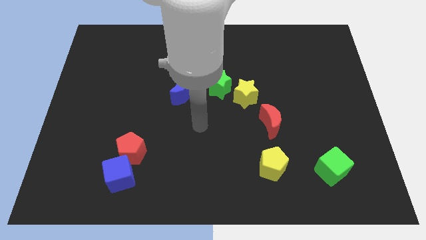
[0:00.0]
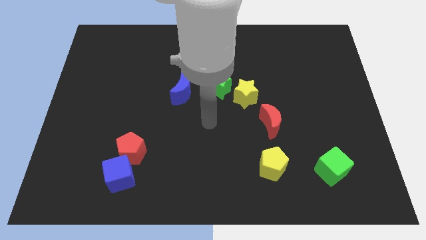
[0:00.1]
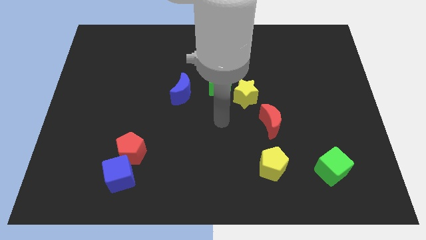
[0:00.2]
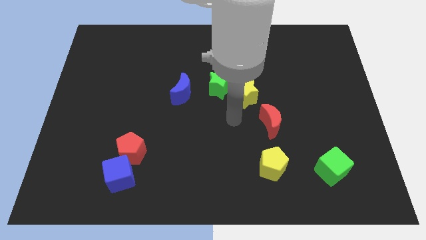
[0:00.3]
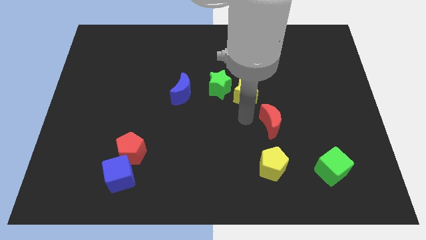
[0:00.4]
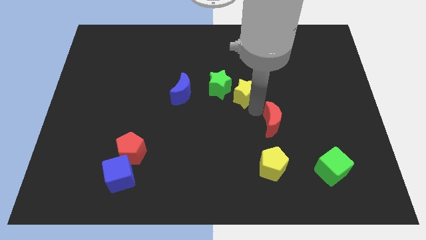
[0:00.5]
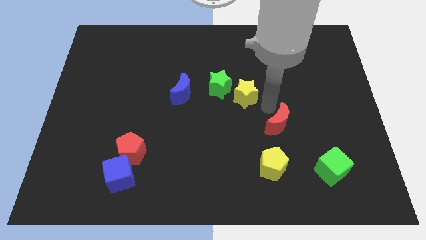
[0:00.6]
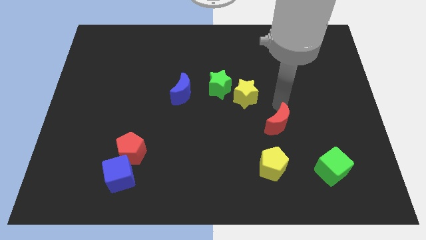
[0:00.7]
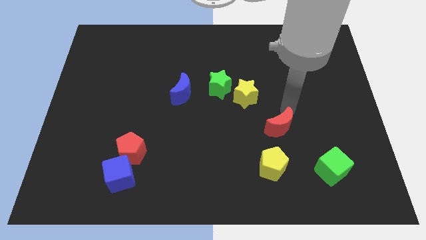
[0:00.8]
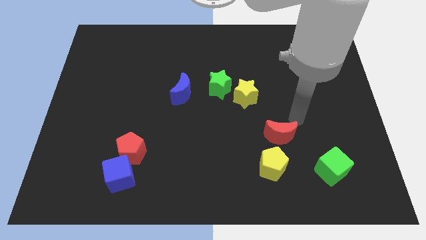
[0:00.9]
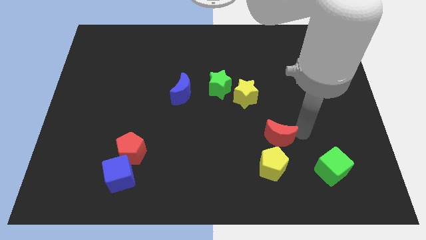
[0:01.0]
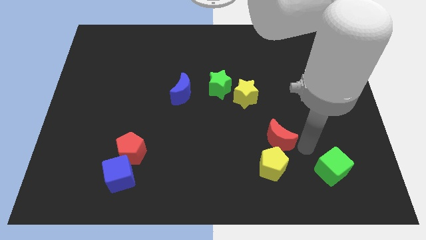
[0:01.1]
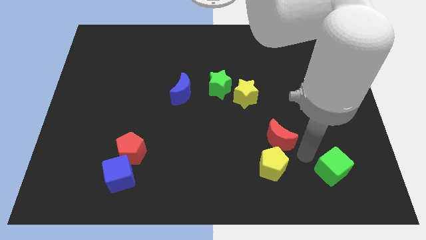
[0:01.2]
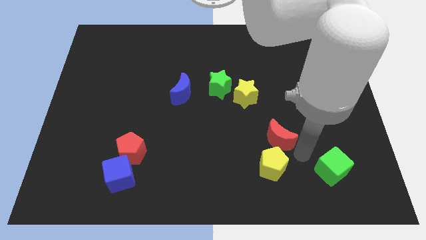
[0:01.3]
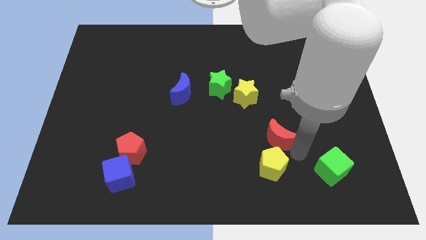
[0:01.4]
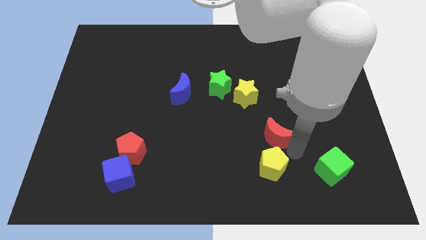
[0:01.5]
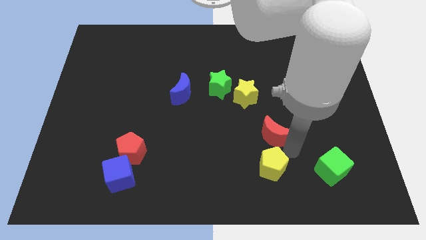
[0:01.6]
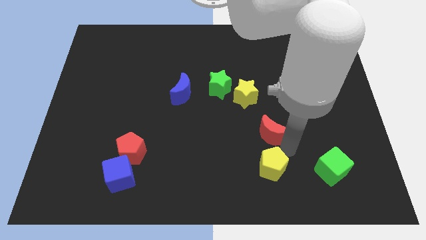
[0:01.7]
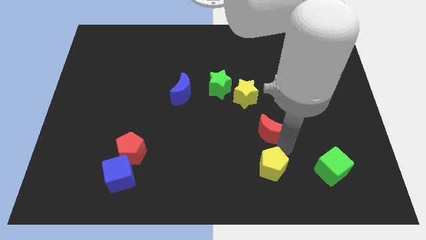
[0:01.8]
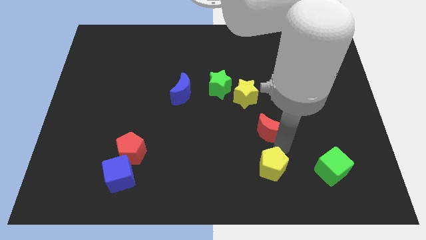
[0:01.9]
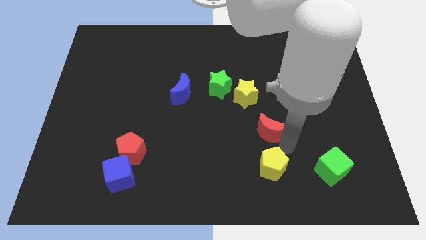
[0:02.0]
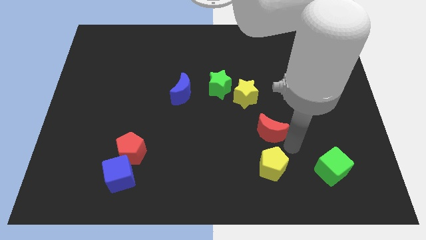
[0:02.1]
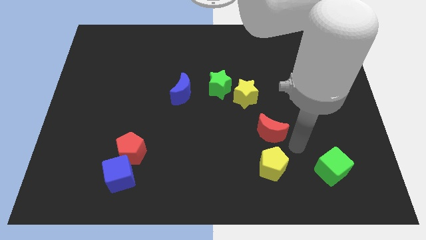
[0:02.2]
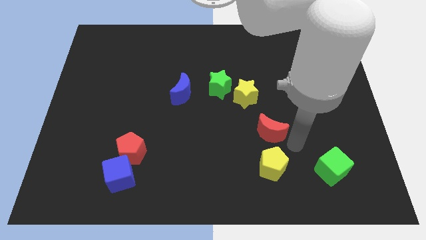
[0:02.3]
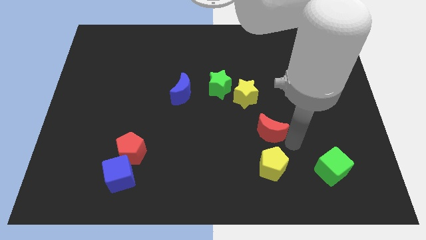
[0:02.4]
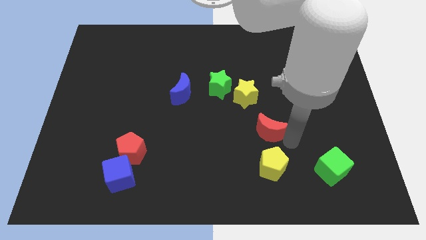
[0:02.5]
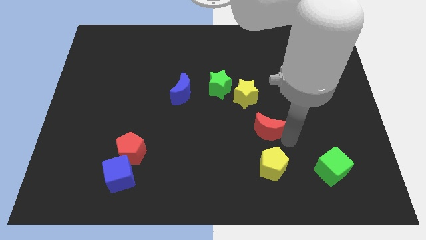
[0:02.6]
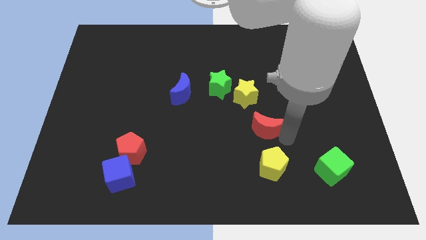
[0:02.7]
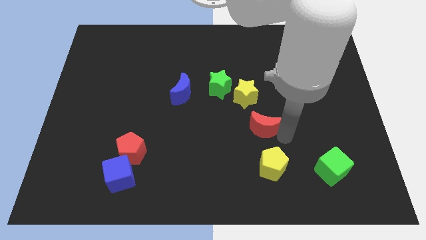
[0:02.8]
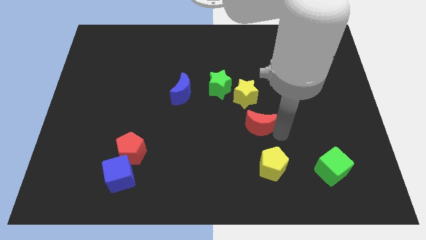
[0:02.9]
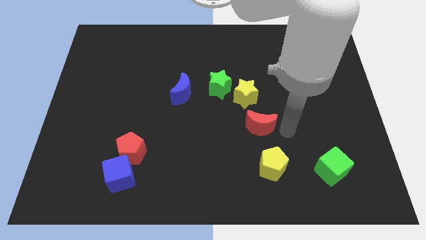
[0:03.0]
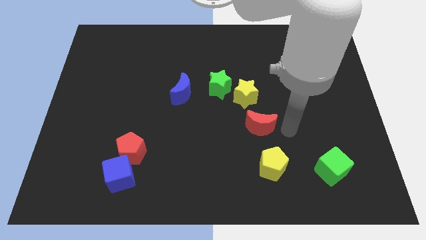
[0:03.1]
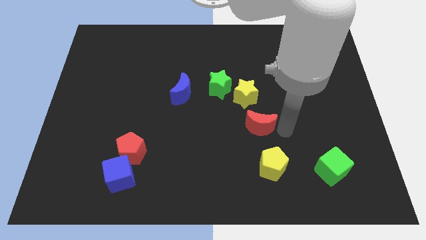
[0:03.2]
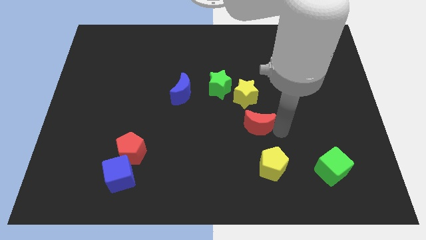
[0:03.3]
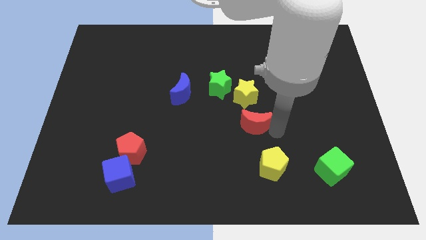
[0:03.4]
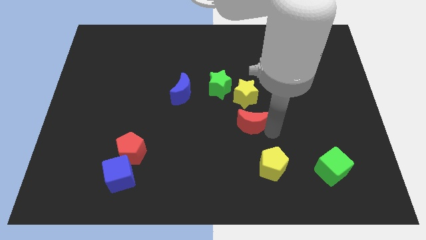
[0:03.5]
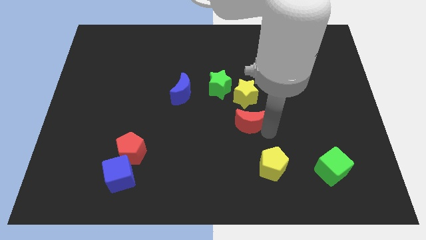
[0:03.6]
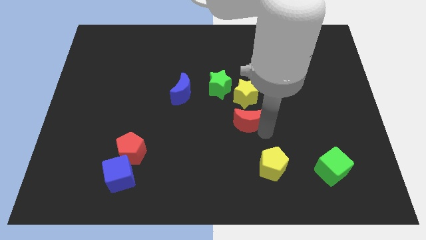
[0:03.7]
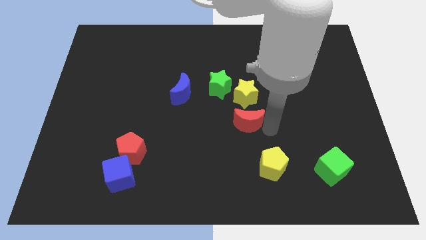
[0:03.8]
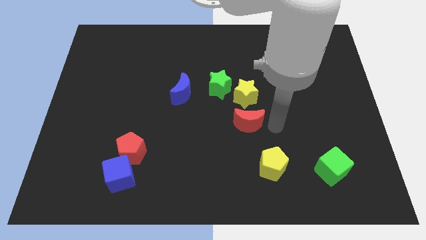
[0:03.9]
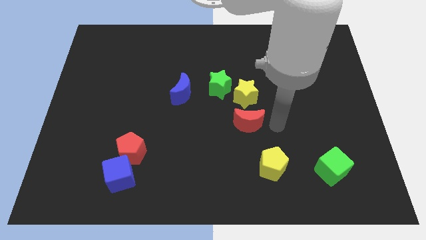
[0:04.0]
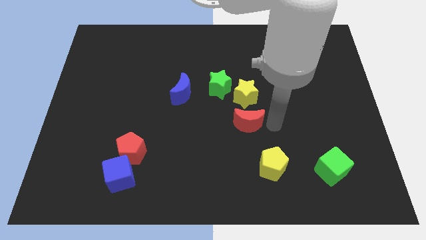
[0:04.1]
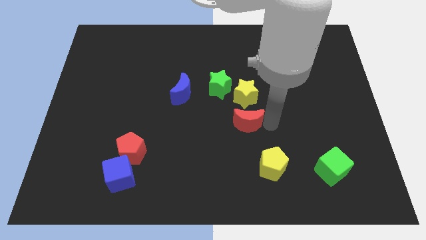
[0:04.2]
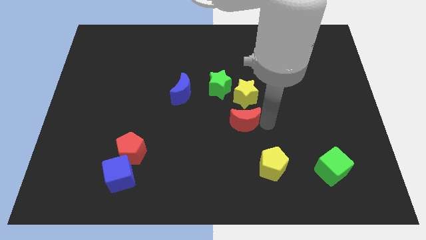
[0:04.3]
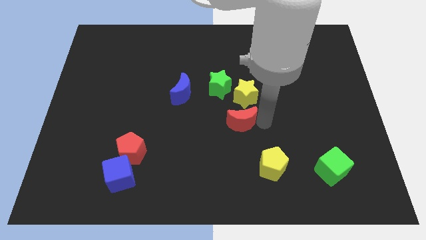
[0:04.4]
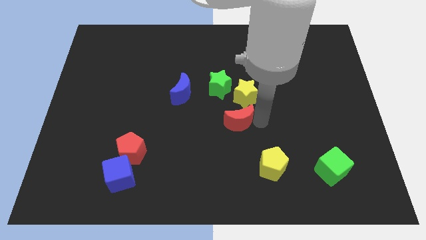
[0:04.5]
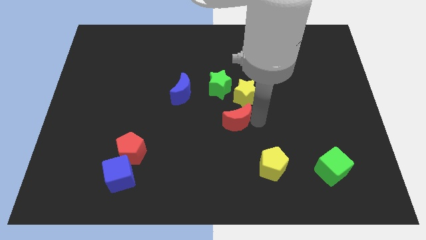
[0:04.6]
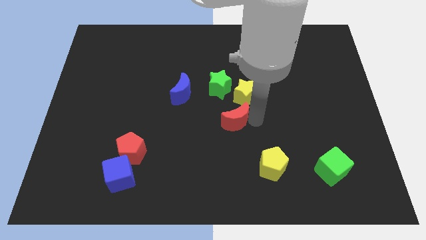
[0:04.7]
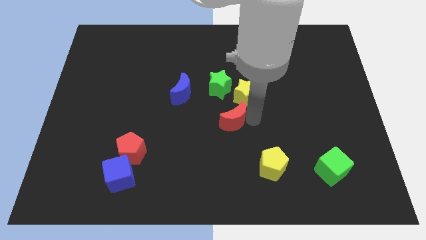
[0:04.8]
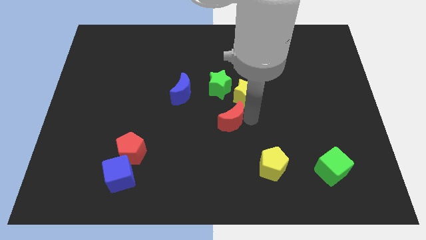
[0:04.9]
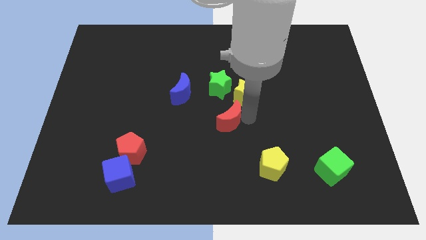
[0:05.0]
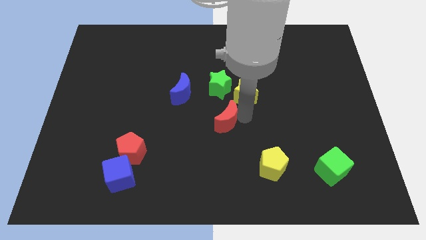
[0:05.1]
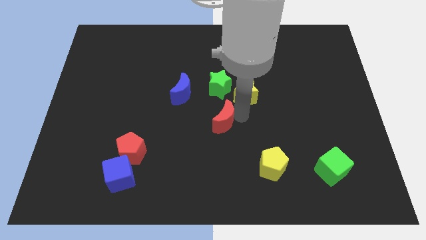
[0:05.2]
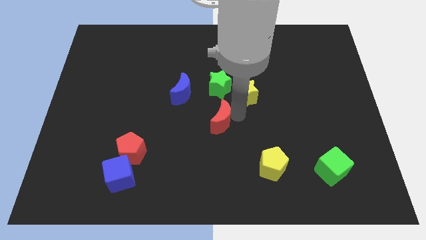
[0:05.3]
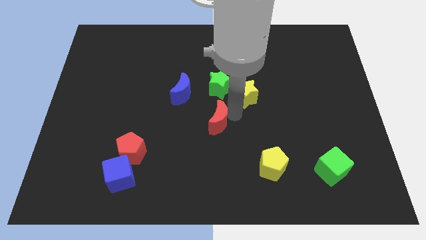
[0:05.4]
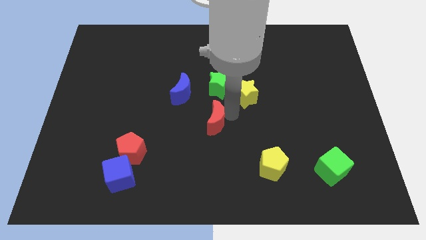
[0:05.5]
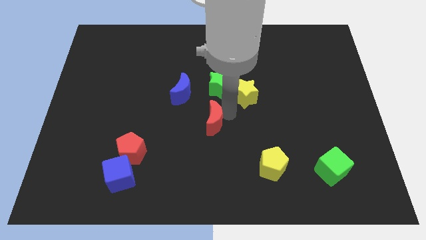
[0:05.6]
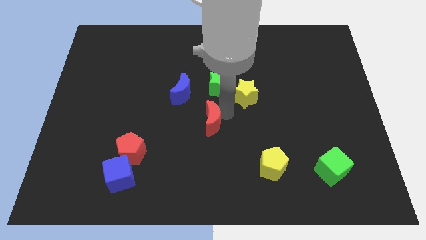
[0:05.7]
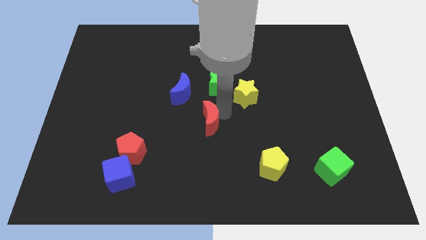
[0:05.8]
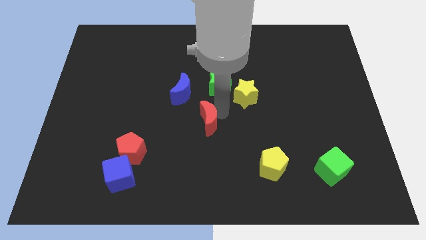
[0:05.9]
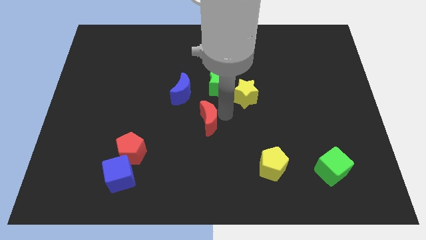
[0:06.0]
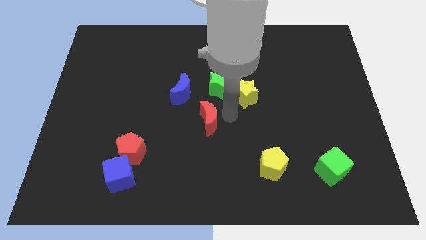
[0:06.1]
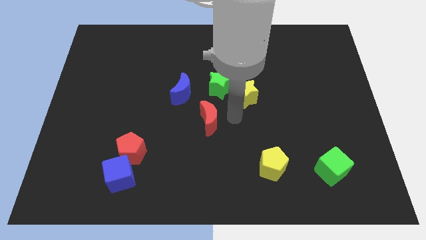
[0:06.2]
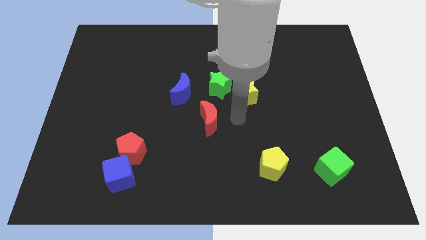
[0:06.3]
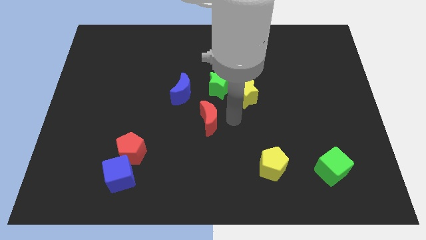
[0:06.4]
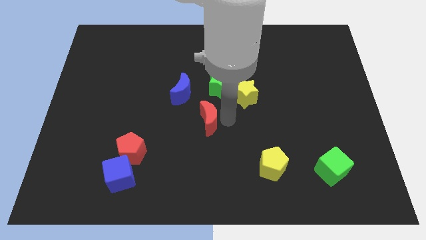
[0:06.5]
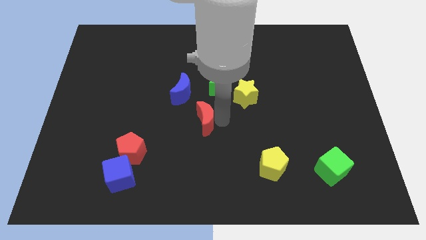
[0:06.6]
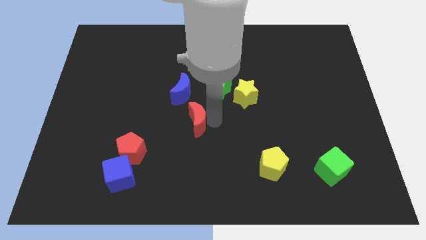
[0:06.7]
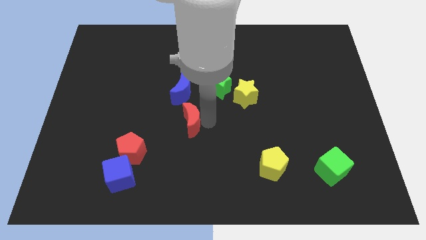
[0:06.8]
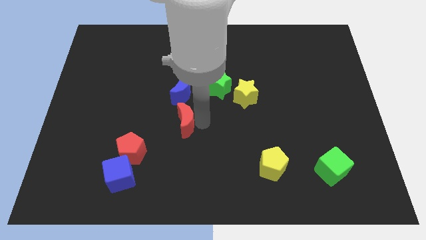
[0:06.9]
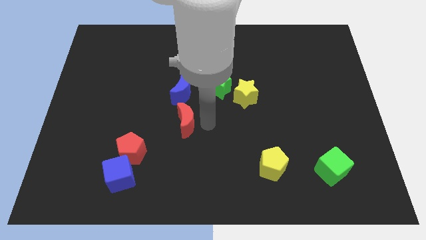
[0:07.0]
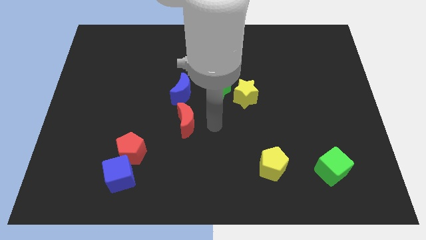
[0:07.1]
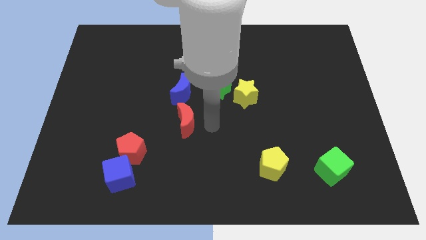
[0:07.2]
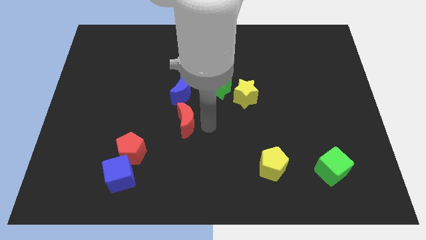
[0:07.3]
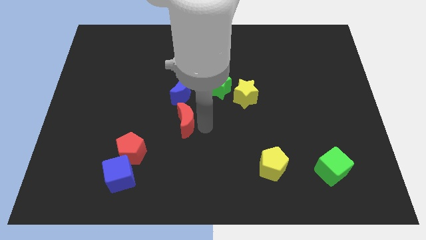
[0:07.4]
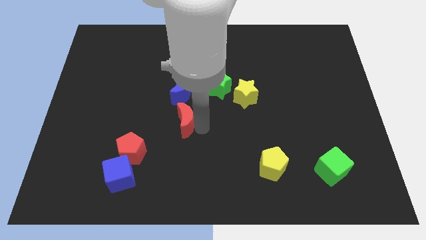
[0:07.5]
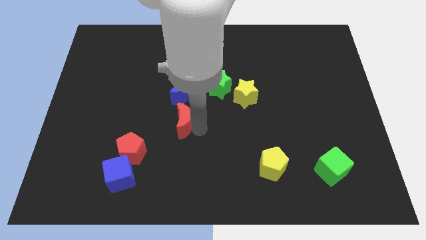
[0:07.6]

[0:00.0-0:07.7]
move the red moon to the left

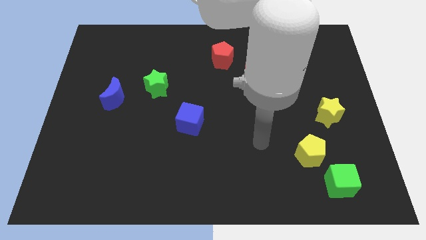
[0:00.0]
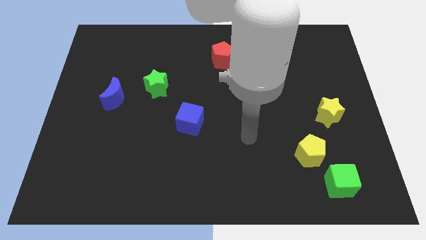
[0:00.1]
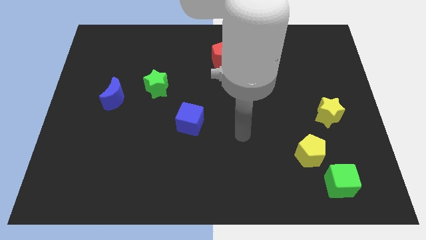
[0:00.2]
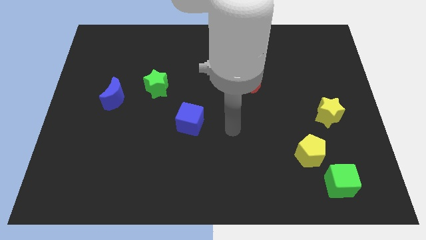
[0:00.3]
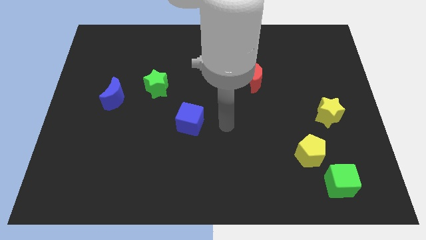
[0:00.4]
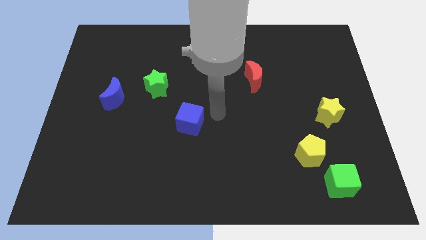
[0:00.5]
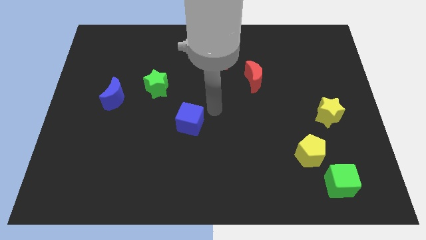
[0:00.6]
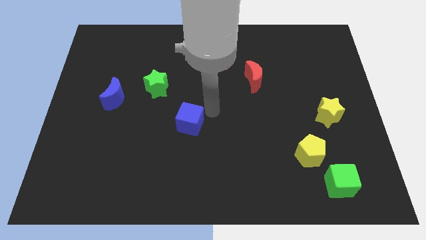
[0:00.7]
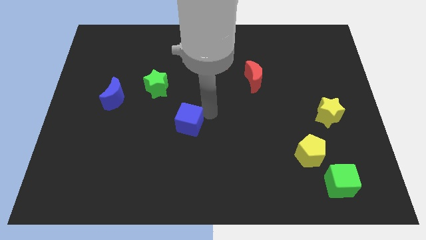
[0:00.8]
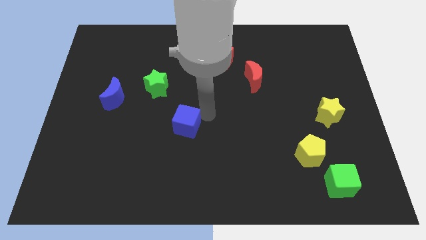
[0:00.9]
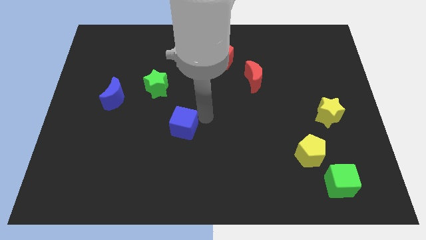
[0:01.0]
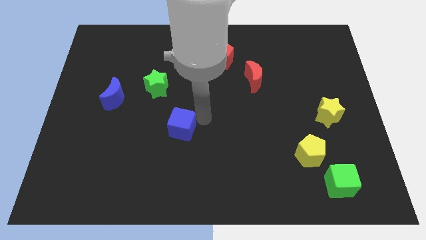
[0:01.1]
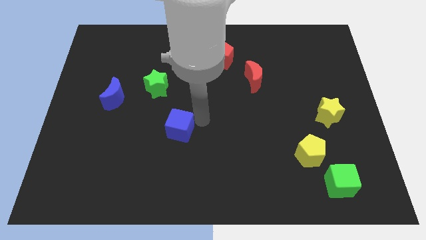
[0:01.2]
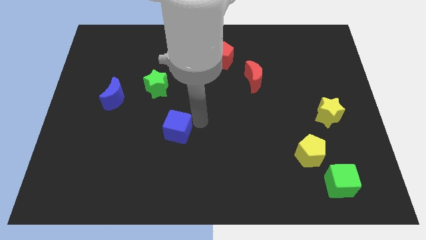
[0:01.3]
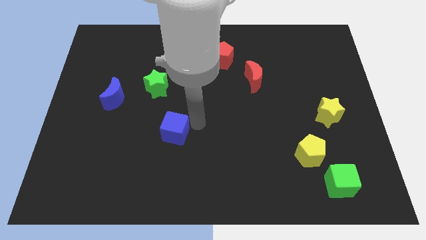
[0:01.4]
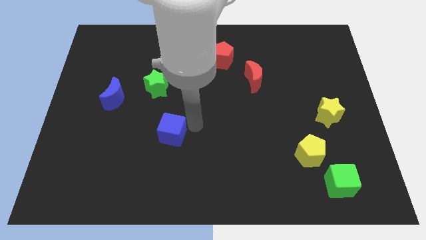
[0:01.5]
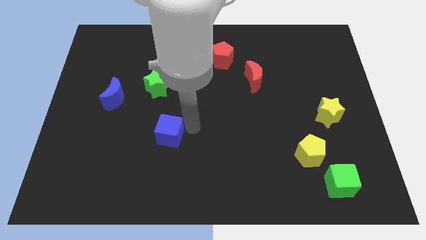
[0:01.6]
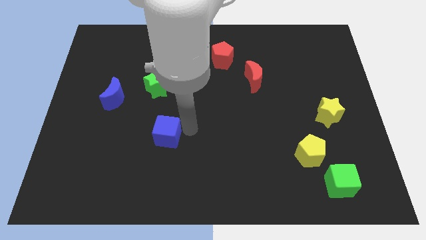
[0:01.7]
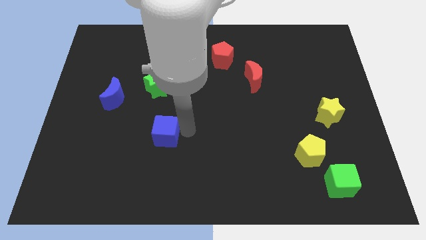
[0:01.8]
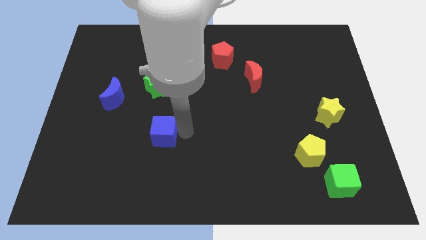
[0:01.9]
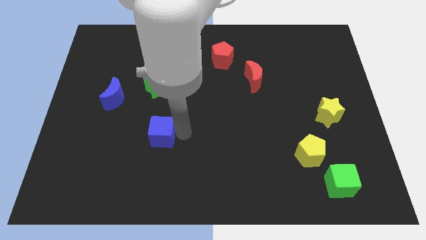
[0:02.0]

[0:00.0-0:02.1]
slide the blue cube slightly diagonally down and to the left
